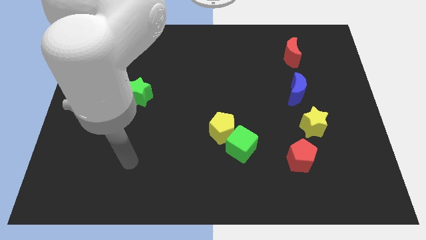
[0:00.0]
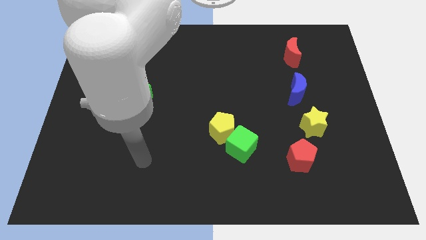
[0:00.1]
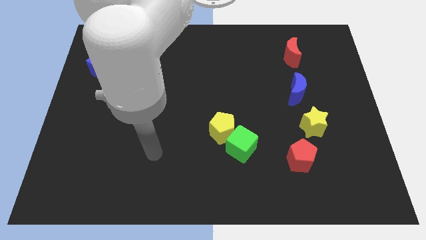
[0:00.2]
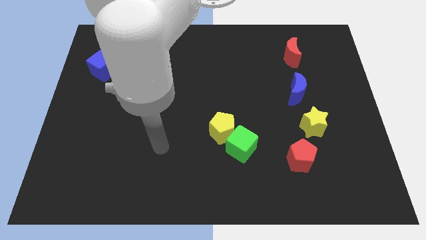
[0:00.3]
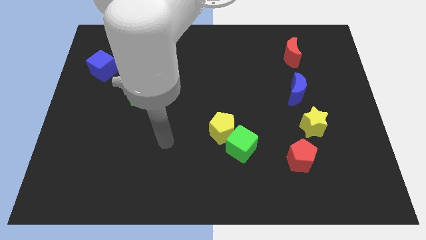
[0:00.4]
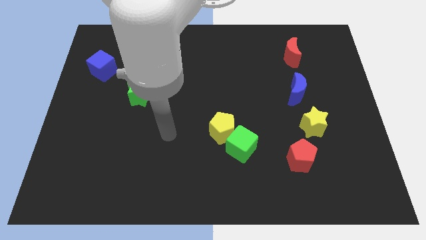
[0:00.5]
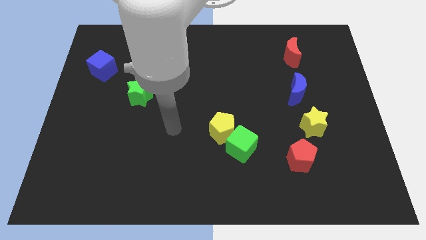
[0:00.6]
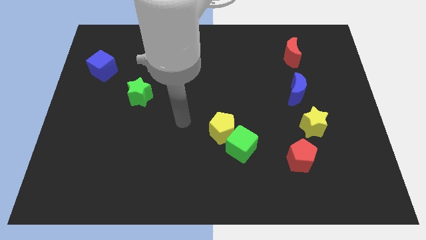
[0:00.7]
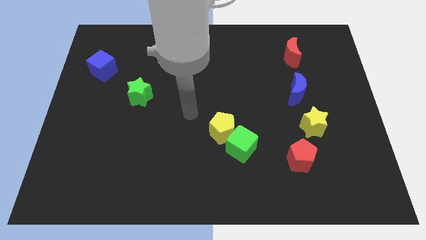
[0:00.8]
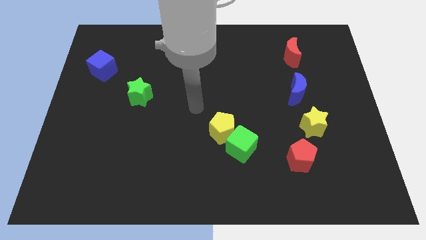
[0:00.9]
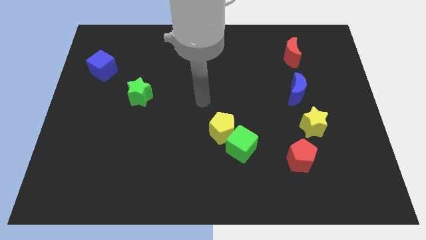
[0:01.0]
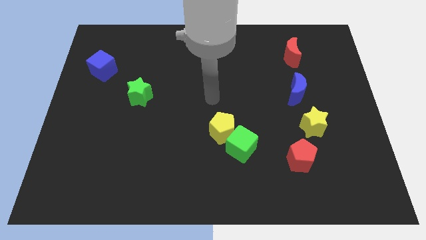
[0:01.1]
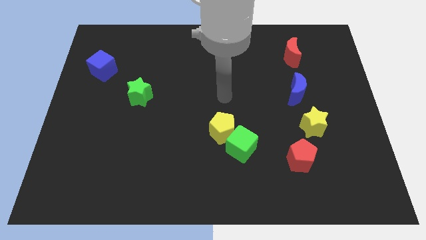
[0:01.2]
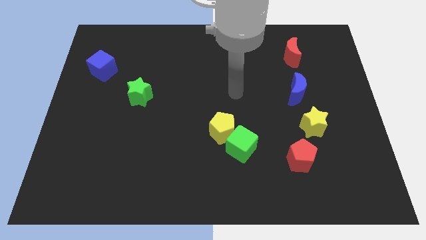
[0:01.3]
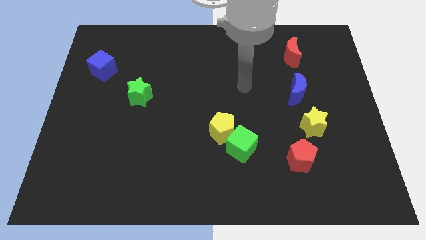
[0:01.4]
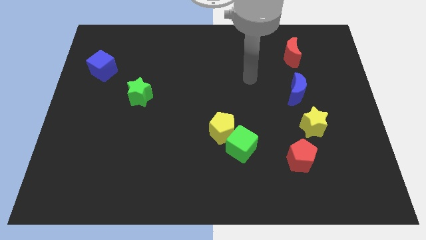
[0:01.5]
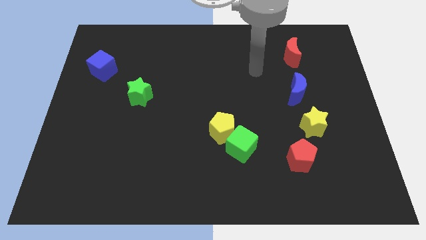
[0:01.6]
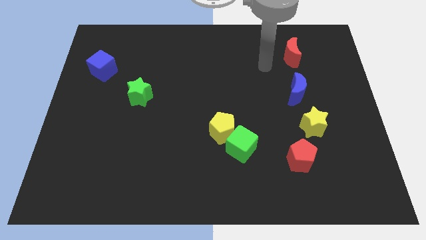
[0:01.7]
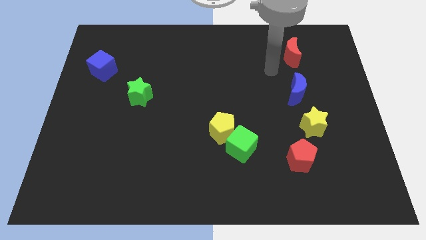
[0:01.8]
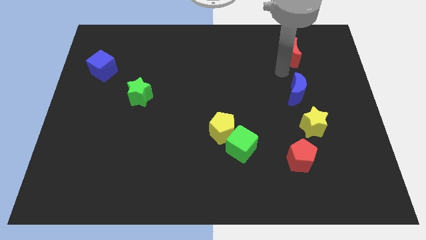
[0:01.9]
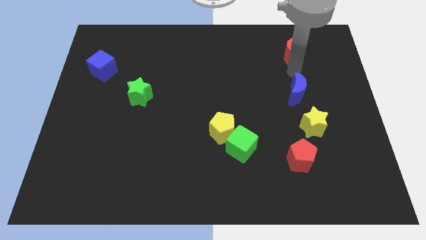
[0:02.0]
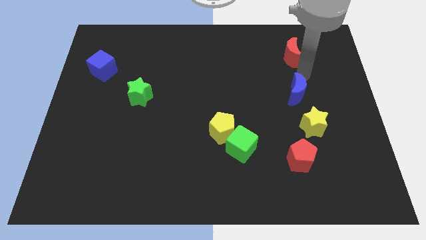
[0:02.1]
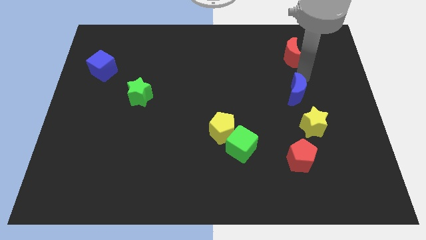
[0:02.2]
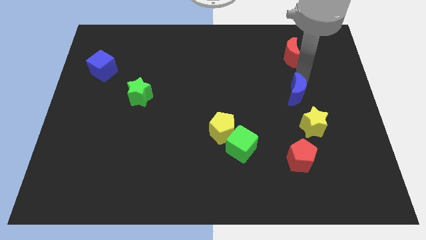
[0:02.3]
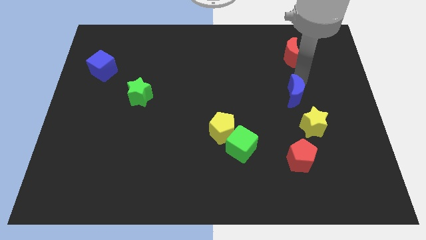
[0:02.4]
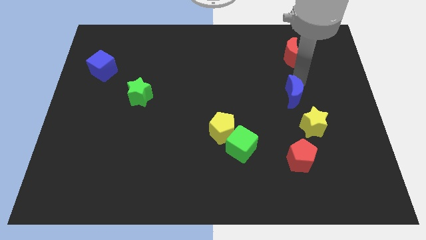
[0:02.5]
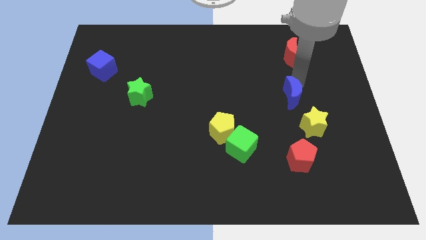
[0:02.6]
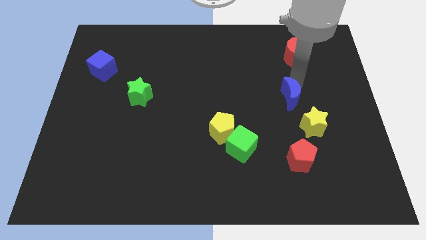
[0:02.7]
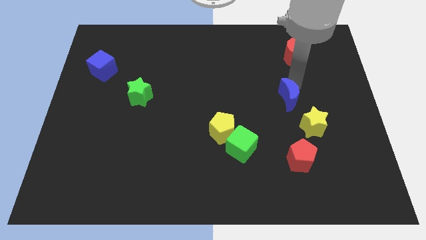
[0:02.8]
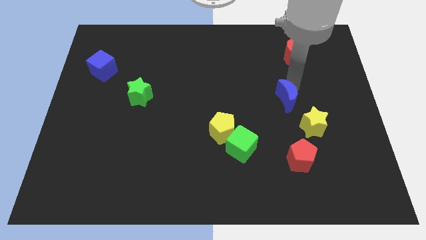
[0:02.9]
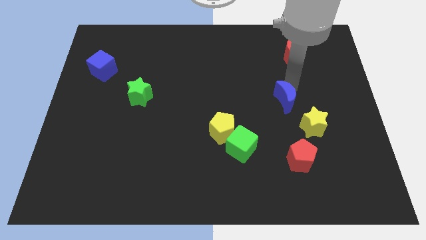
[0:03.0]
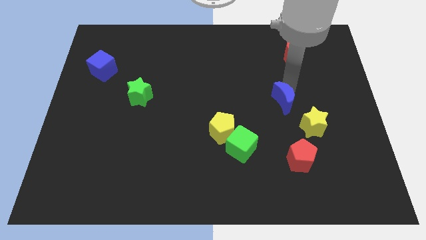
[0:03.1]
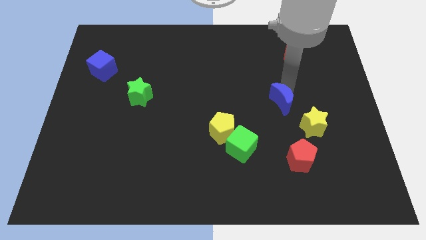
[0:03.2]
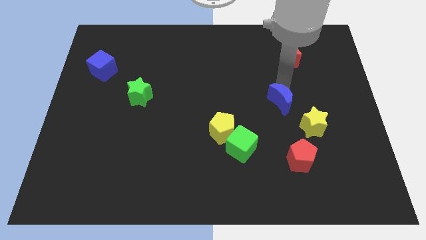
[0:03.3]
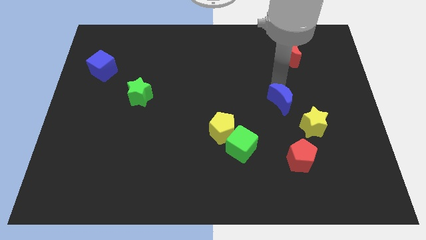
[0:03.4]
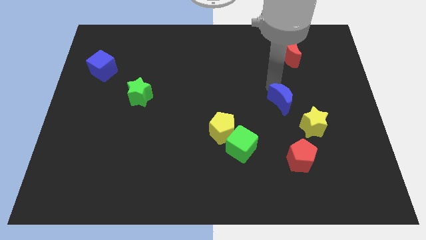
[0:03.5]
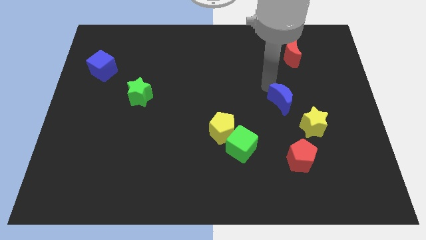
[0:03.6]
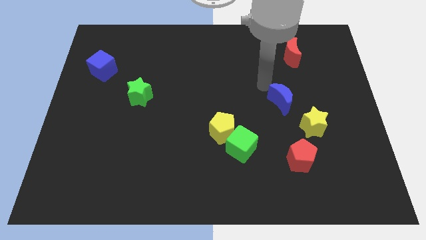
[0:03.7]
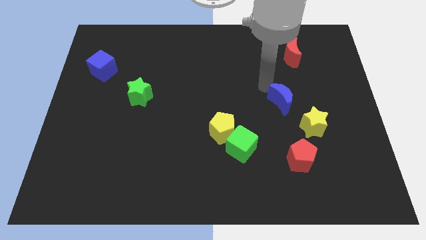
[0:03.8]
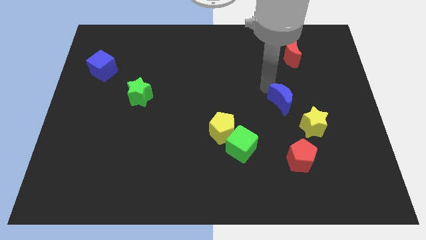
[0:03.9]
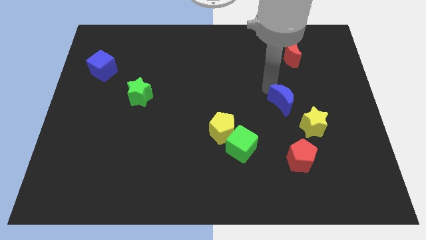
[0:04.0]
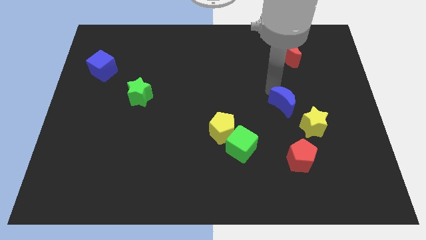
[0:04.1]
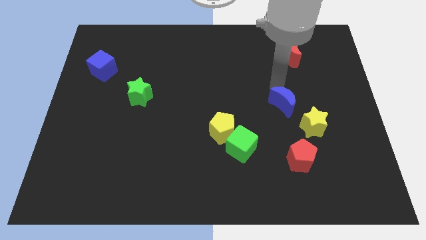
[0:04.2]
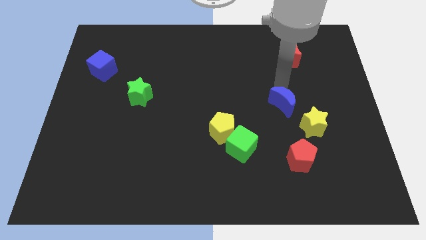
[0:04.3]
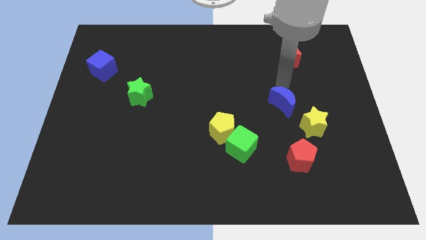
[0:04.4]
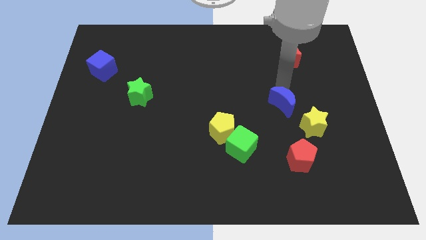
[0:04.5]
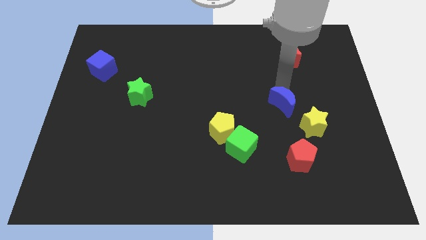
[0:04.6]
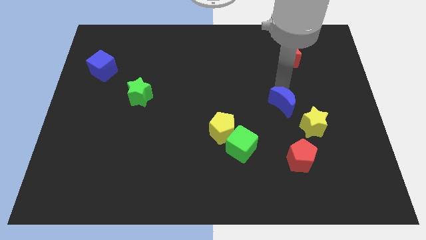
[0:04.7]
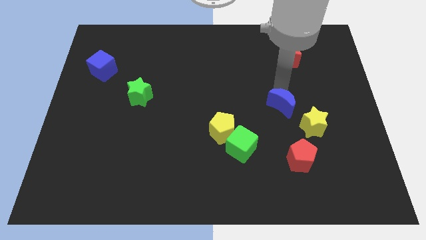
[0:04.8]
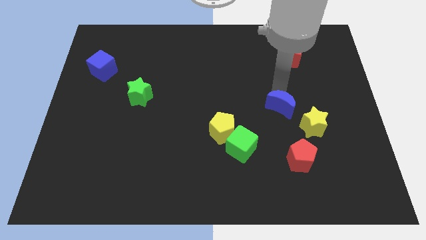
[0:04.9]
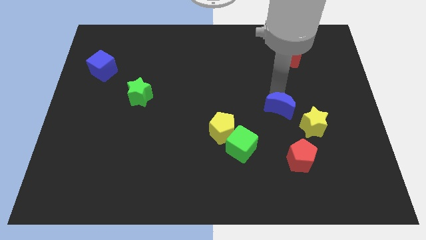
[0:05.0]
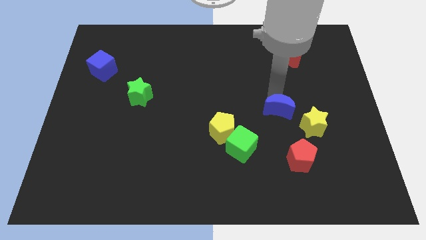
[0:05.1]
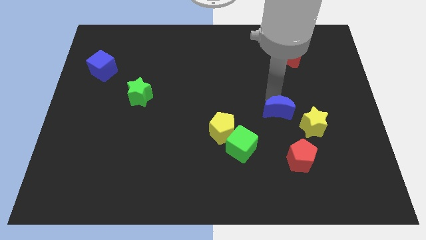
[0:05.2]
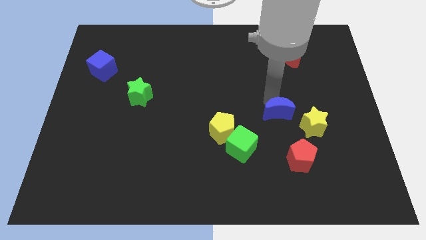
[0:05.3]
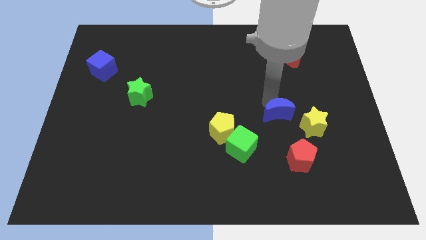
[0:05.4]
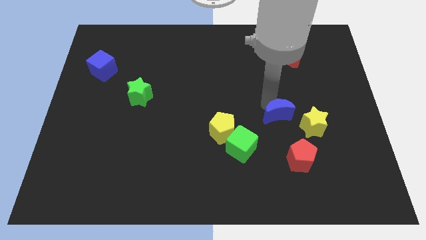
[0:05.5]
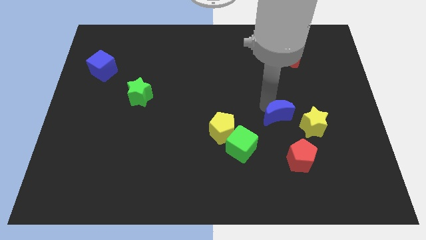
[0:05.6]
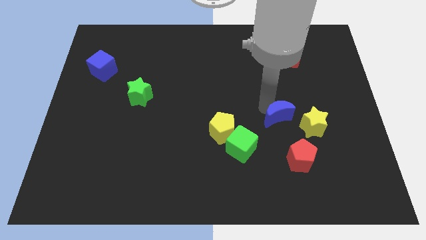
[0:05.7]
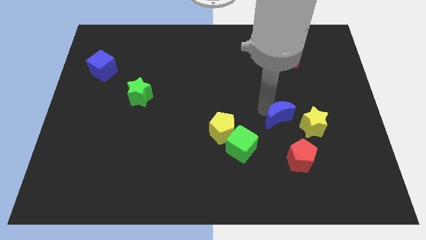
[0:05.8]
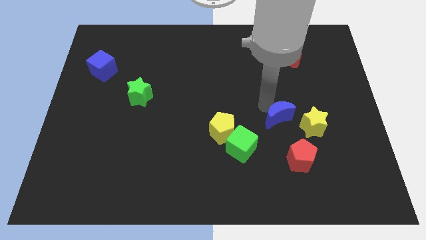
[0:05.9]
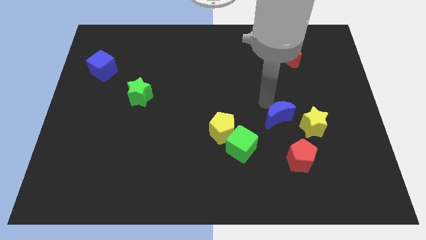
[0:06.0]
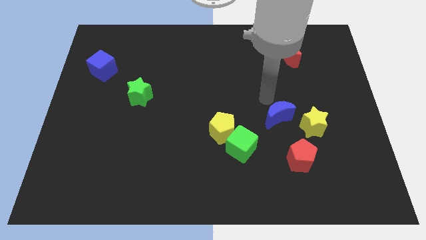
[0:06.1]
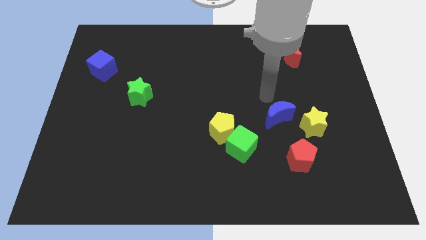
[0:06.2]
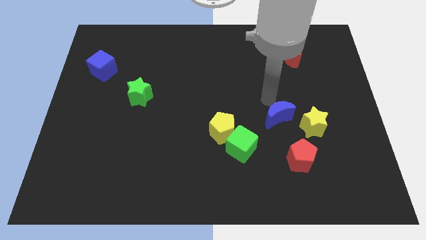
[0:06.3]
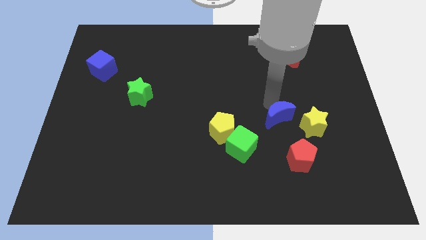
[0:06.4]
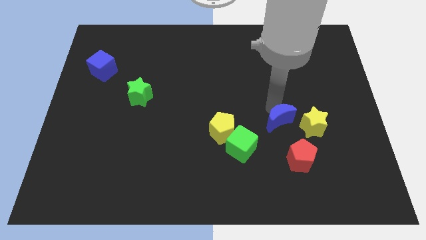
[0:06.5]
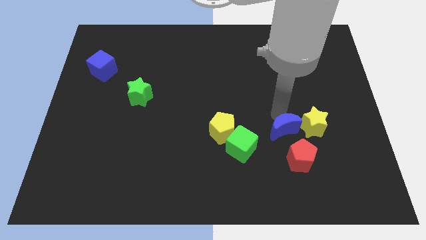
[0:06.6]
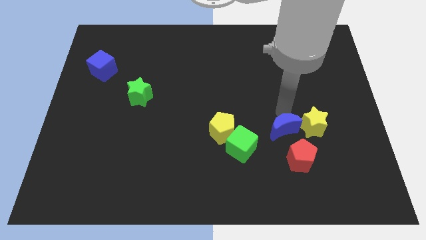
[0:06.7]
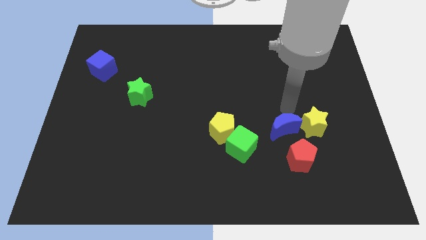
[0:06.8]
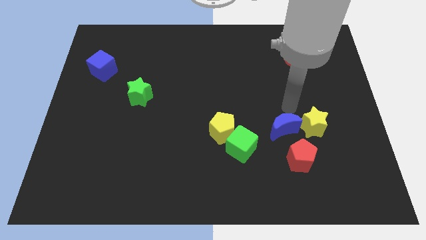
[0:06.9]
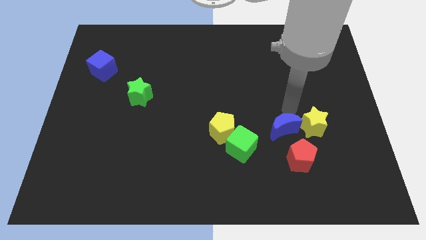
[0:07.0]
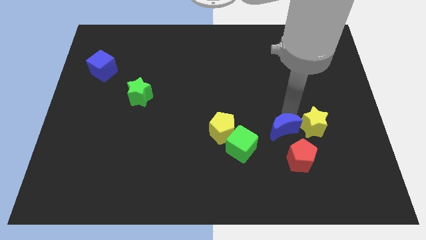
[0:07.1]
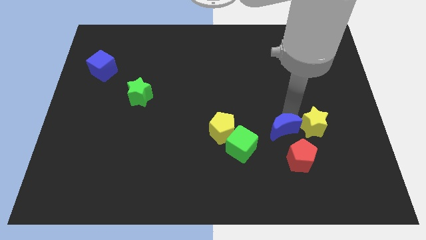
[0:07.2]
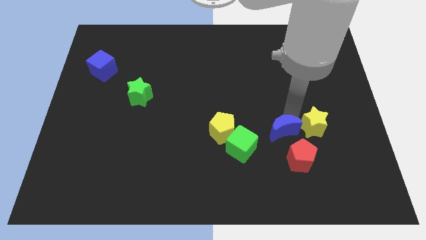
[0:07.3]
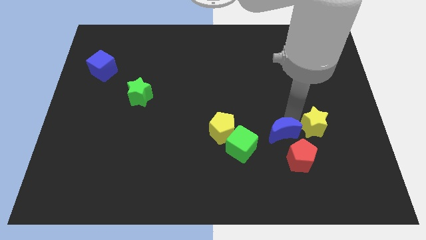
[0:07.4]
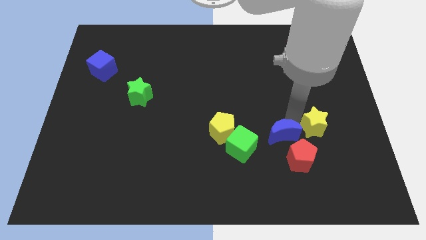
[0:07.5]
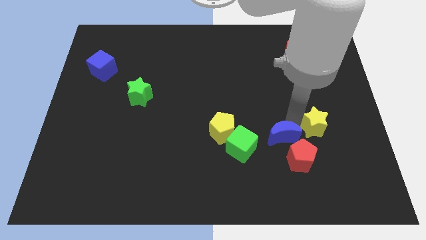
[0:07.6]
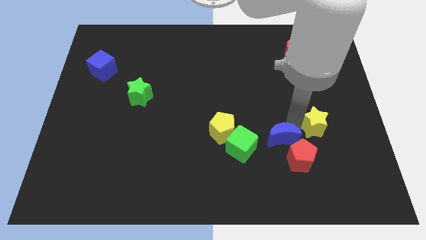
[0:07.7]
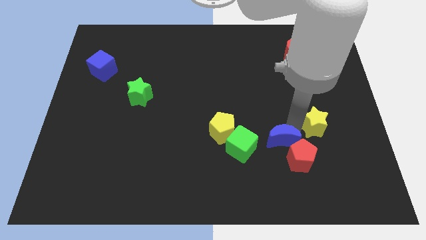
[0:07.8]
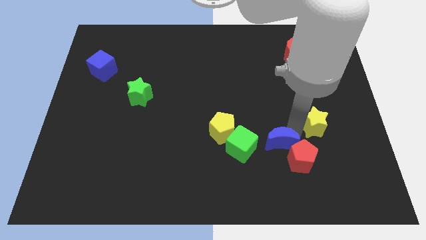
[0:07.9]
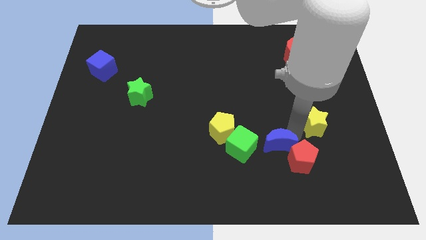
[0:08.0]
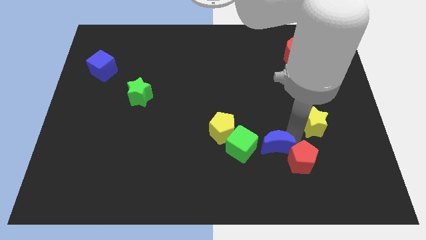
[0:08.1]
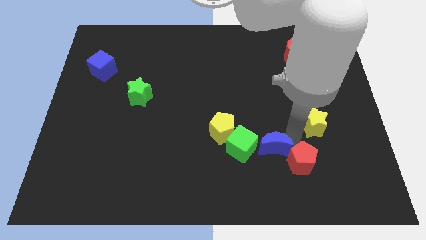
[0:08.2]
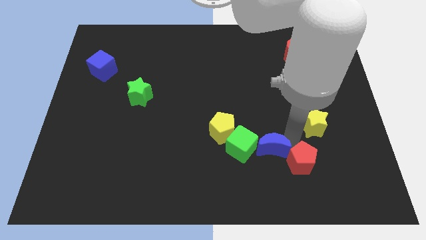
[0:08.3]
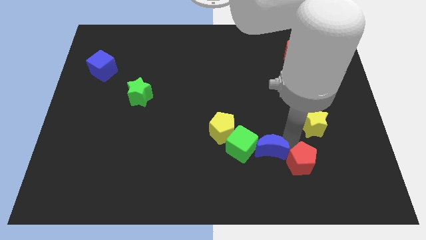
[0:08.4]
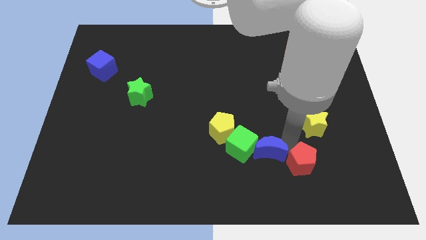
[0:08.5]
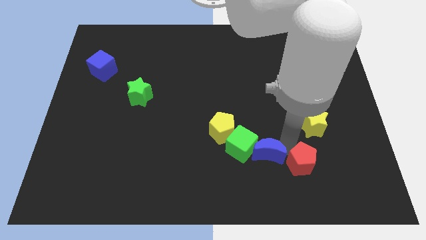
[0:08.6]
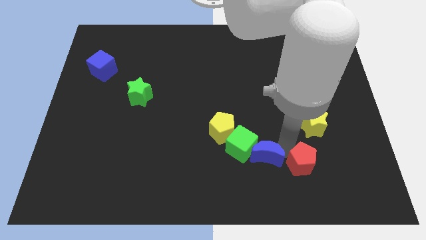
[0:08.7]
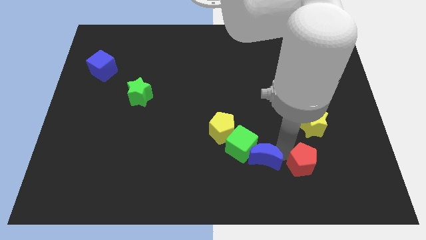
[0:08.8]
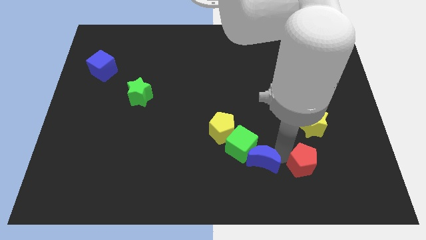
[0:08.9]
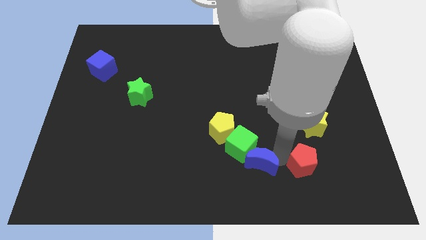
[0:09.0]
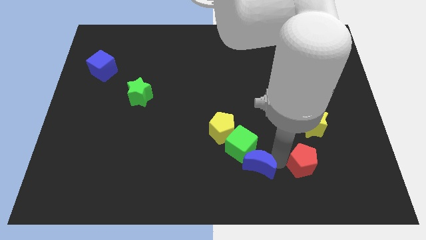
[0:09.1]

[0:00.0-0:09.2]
push the blue moon down and left diagonally
